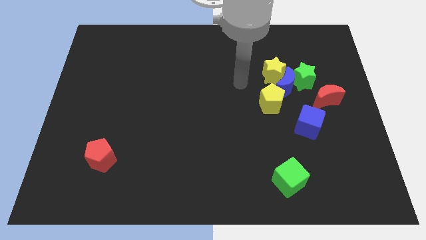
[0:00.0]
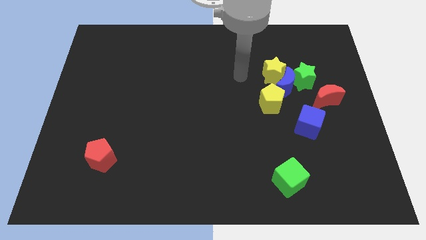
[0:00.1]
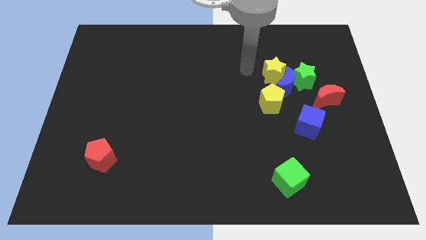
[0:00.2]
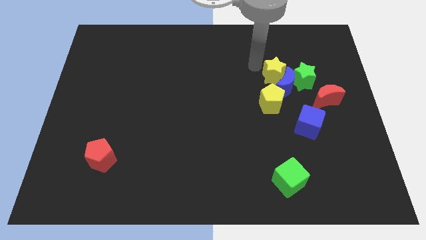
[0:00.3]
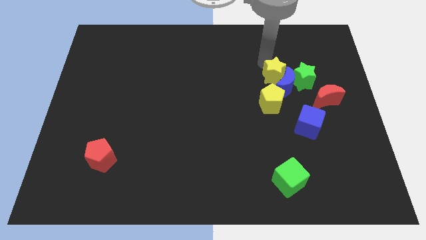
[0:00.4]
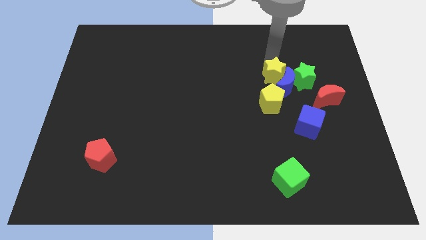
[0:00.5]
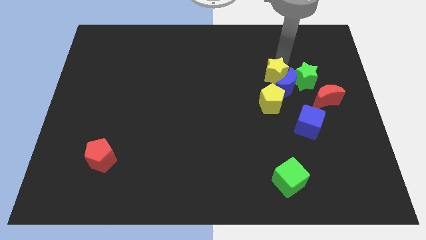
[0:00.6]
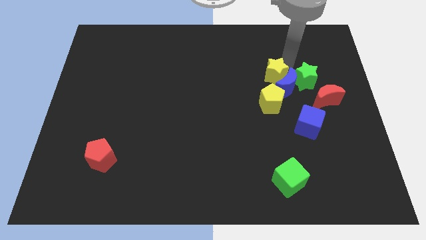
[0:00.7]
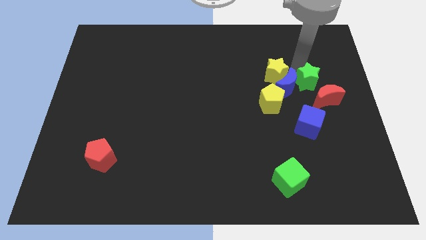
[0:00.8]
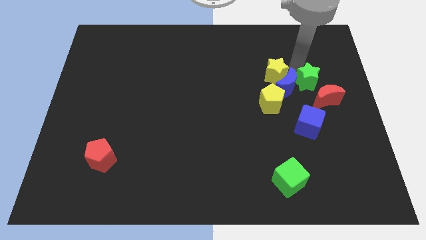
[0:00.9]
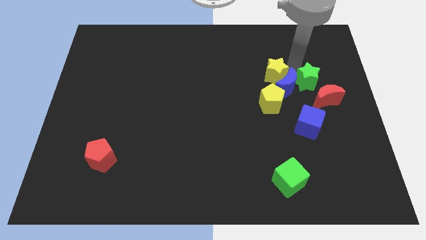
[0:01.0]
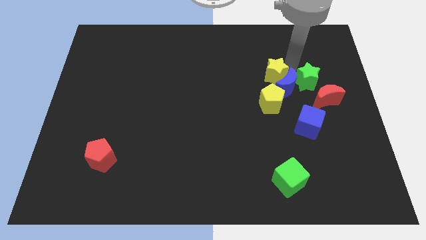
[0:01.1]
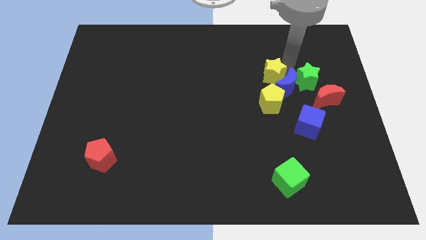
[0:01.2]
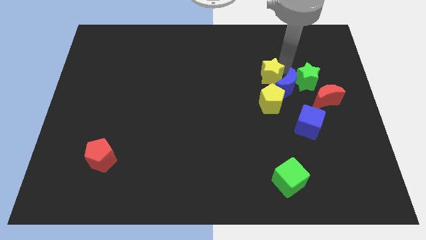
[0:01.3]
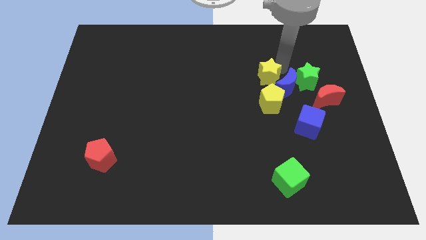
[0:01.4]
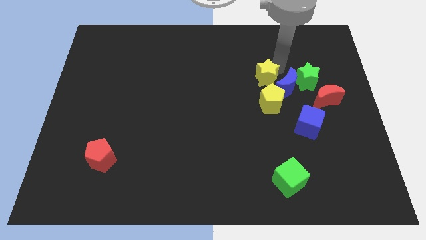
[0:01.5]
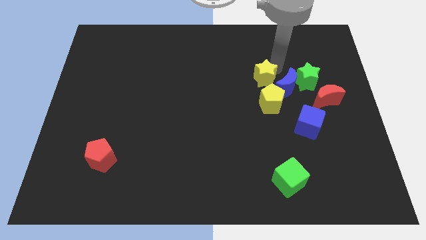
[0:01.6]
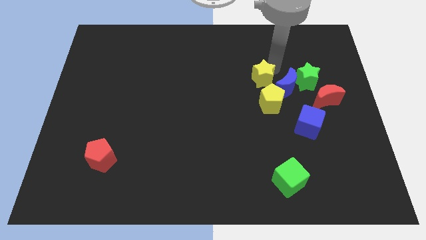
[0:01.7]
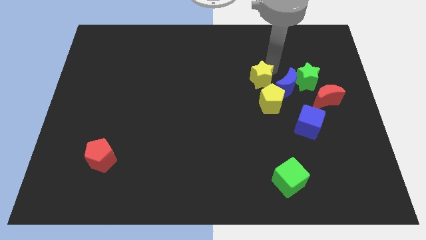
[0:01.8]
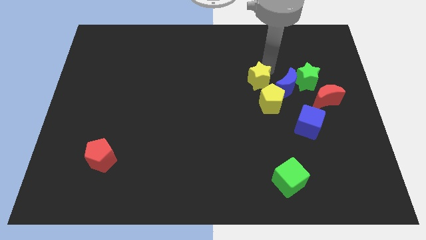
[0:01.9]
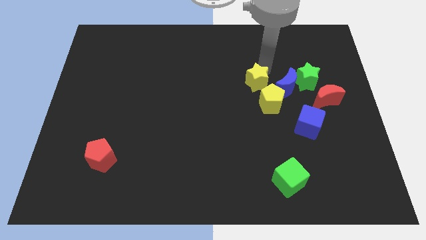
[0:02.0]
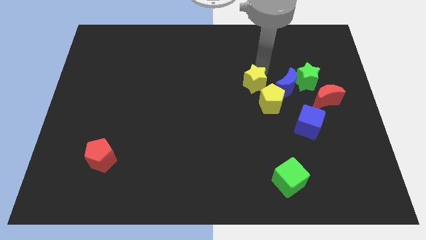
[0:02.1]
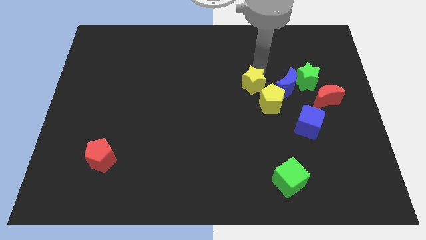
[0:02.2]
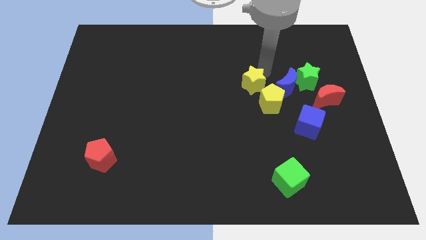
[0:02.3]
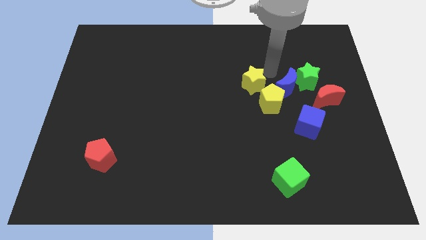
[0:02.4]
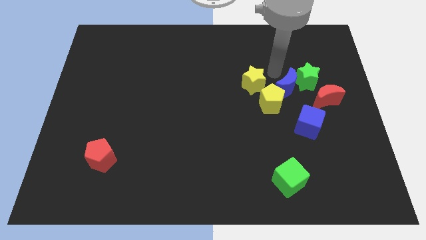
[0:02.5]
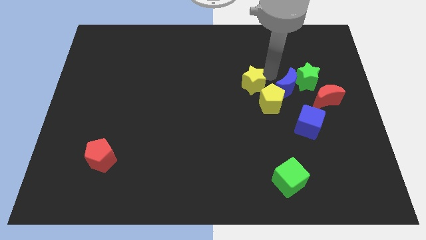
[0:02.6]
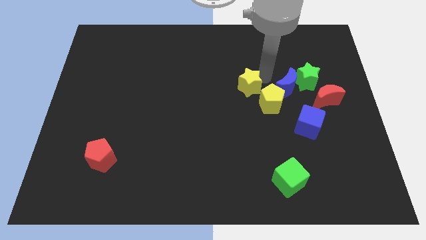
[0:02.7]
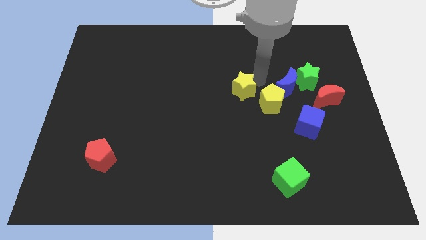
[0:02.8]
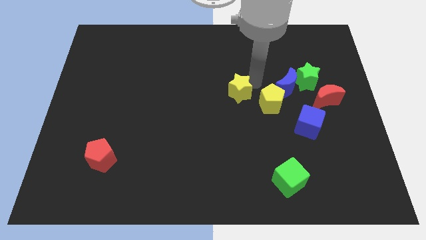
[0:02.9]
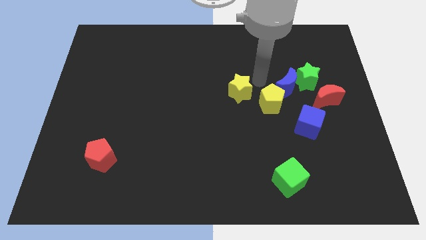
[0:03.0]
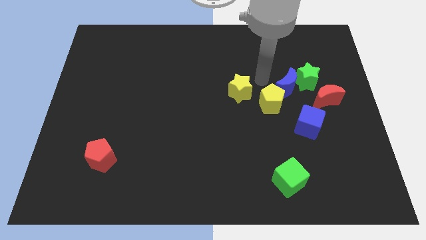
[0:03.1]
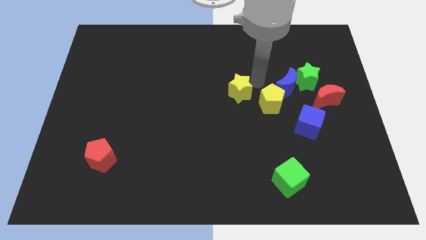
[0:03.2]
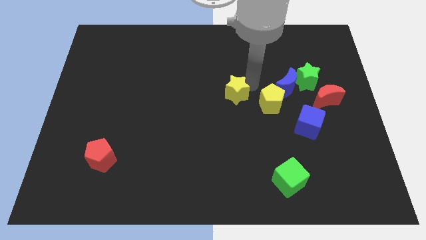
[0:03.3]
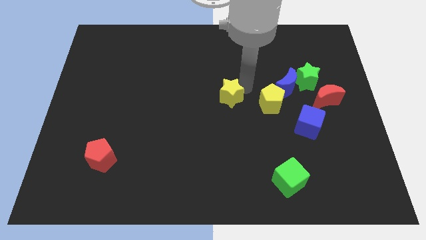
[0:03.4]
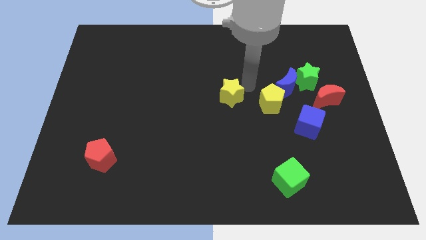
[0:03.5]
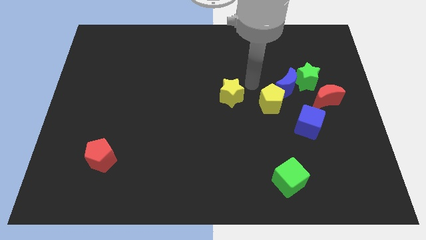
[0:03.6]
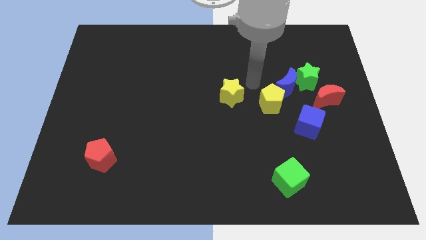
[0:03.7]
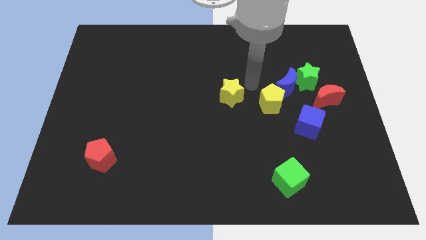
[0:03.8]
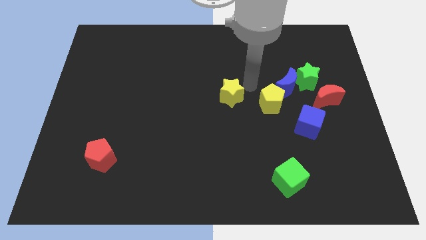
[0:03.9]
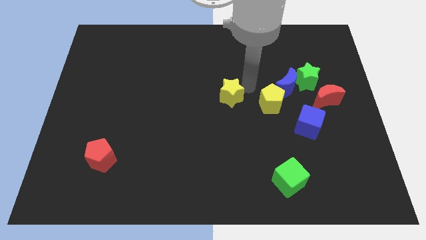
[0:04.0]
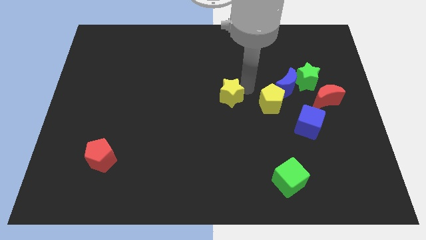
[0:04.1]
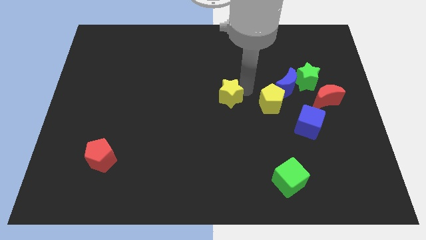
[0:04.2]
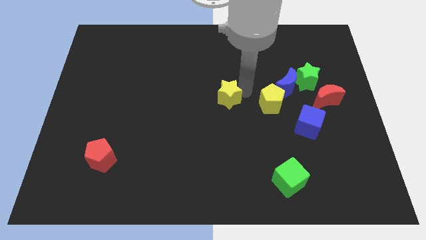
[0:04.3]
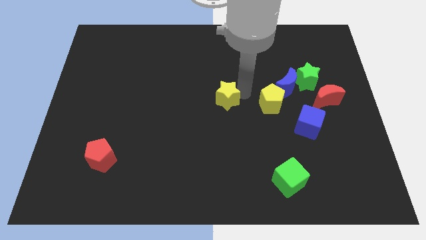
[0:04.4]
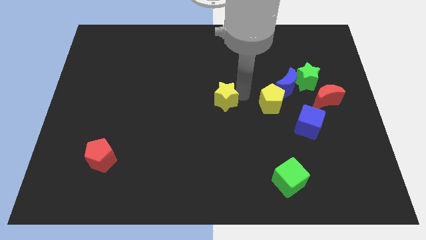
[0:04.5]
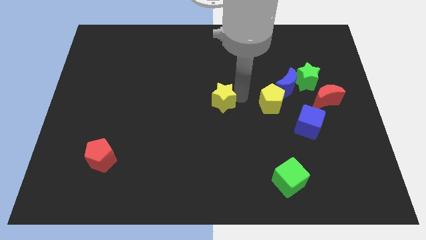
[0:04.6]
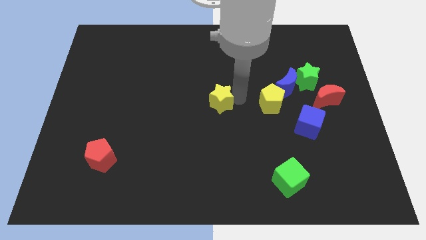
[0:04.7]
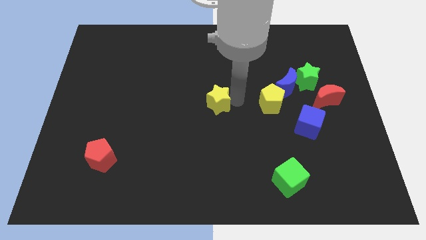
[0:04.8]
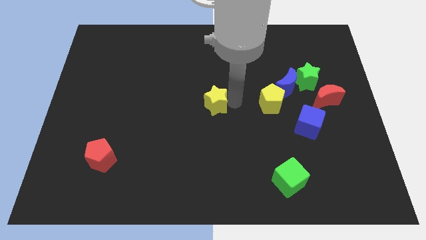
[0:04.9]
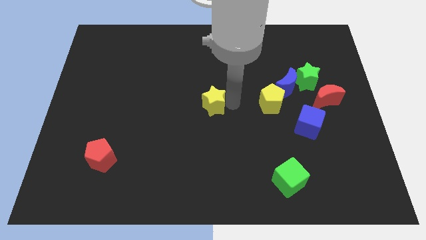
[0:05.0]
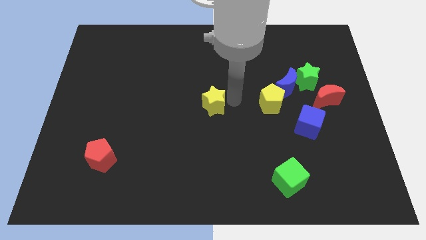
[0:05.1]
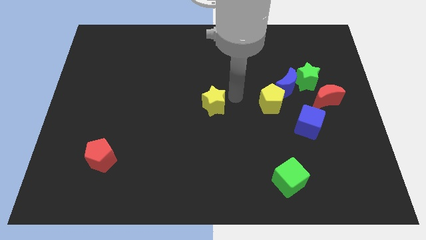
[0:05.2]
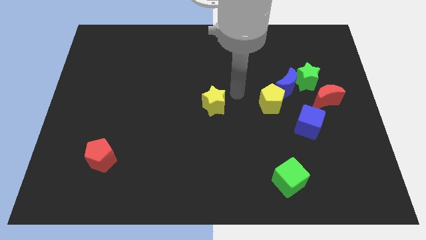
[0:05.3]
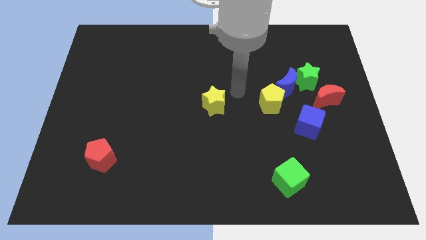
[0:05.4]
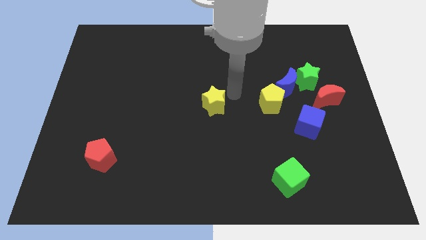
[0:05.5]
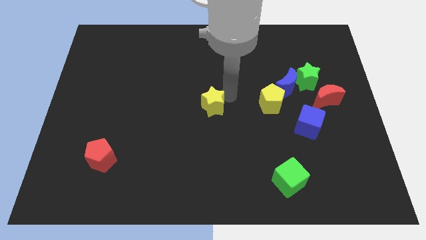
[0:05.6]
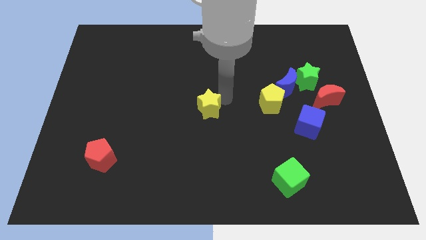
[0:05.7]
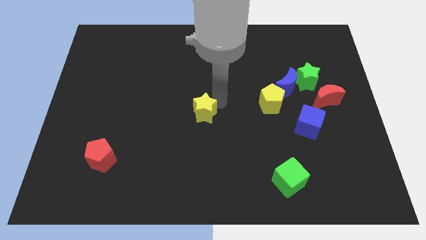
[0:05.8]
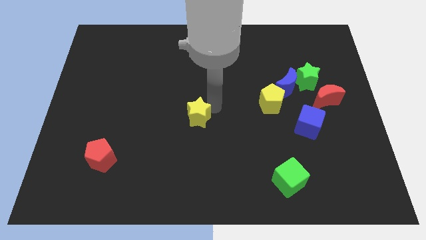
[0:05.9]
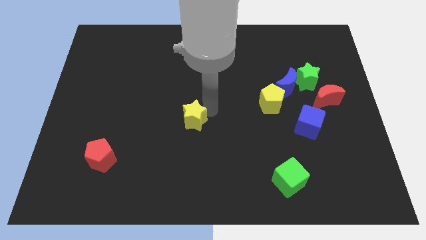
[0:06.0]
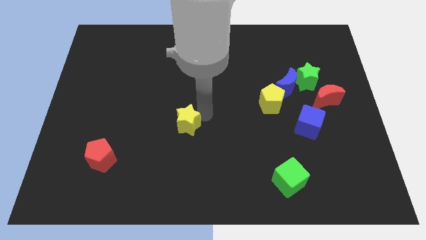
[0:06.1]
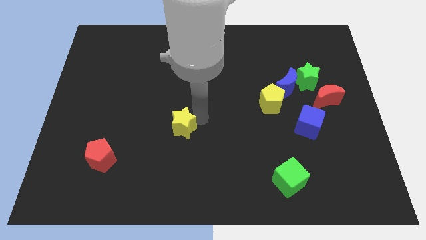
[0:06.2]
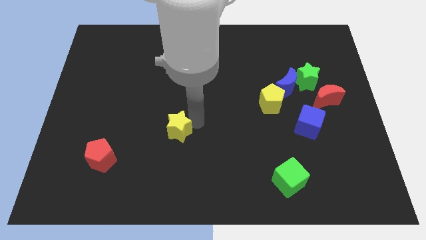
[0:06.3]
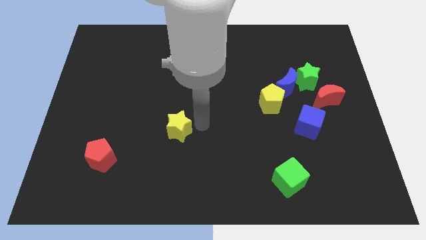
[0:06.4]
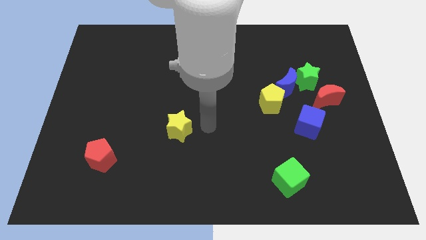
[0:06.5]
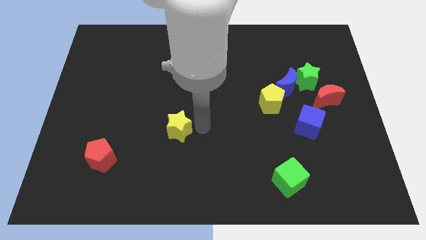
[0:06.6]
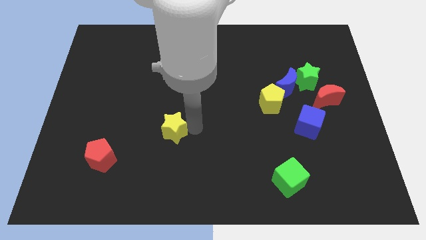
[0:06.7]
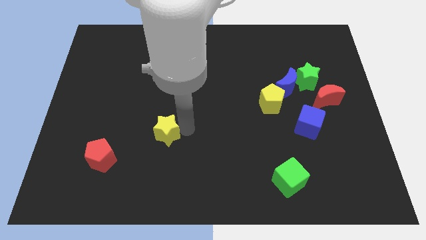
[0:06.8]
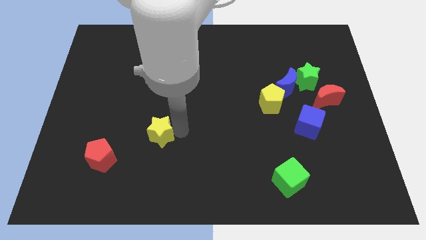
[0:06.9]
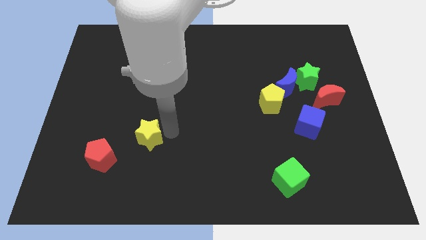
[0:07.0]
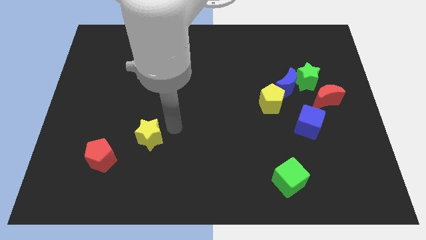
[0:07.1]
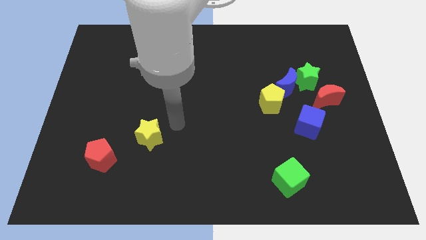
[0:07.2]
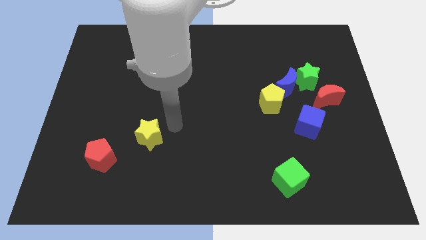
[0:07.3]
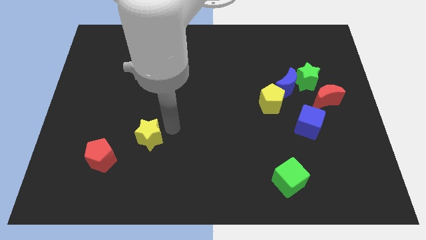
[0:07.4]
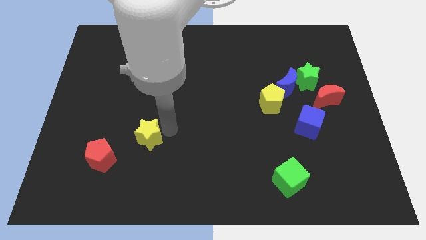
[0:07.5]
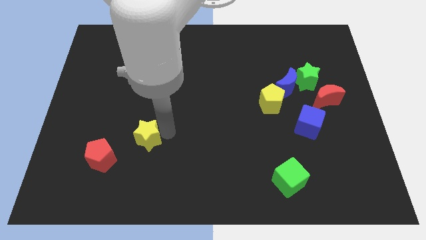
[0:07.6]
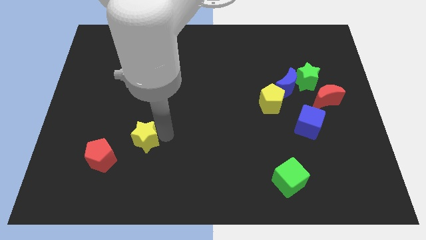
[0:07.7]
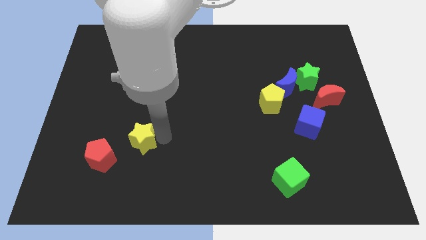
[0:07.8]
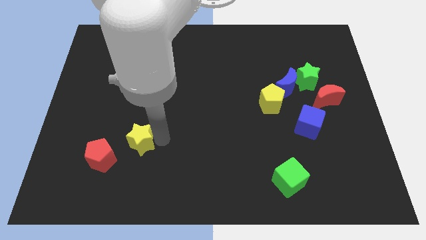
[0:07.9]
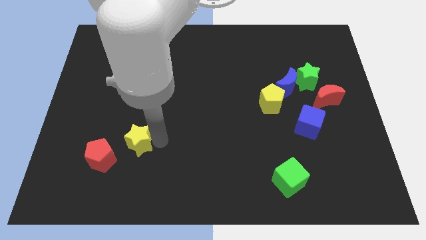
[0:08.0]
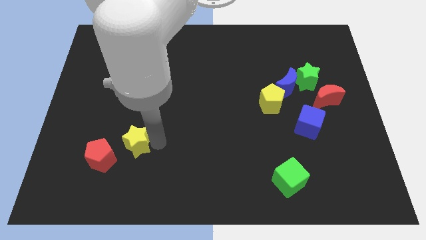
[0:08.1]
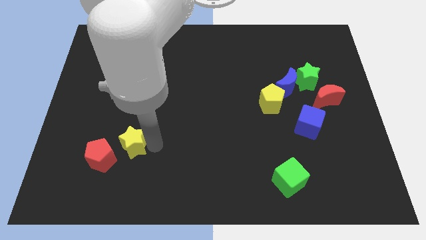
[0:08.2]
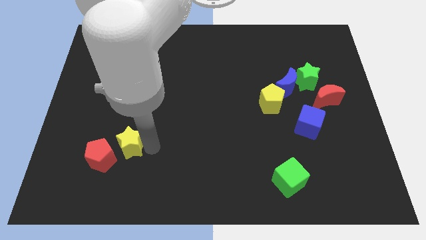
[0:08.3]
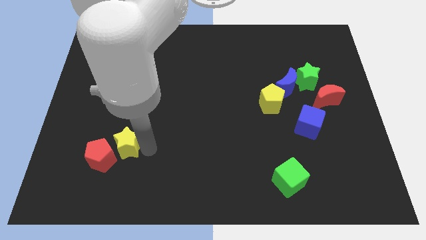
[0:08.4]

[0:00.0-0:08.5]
push the yellow star next to the red pentagon
